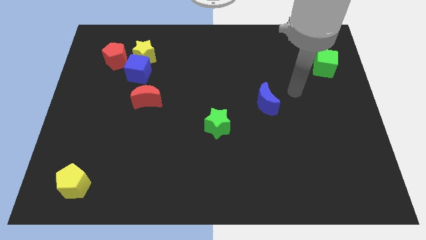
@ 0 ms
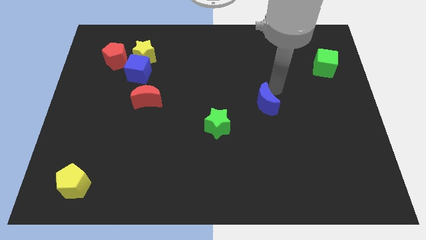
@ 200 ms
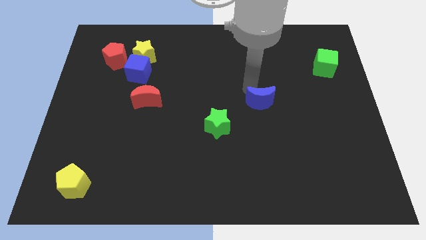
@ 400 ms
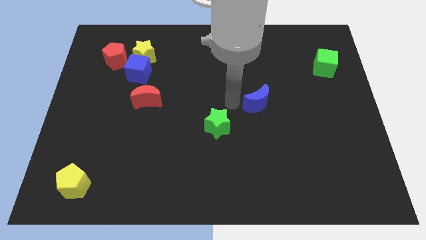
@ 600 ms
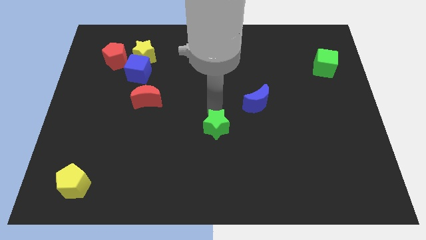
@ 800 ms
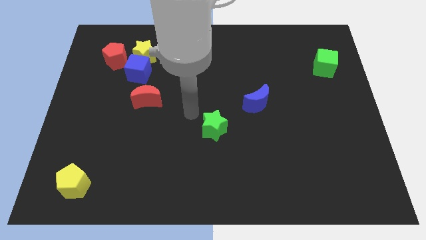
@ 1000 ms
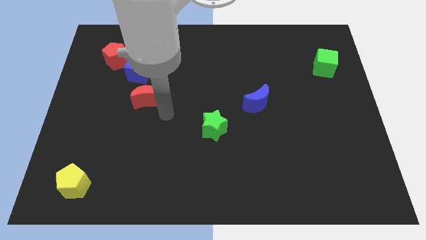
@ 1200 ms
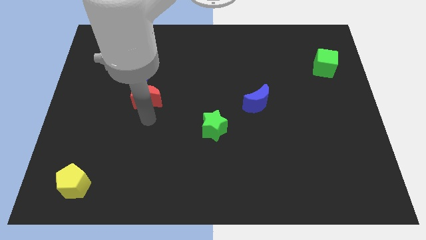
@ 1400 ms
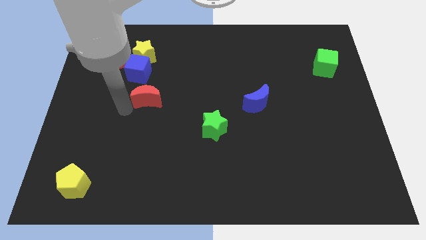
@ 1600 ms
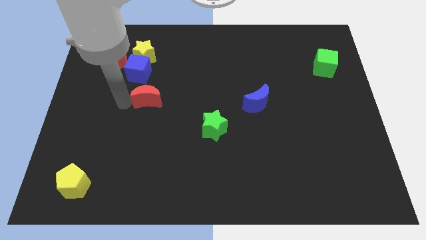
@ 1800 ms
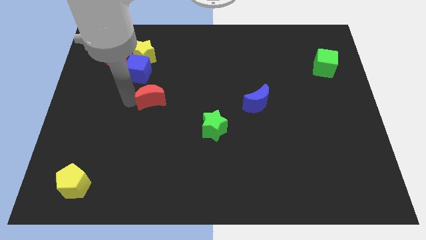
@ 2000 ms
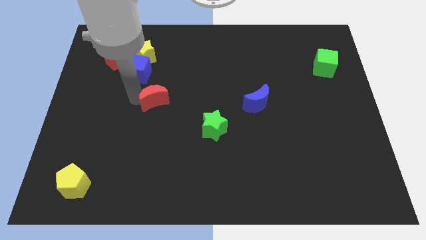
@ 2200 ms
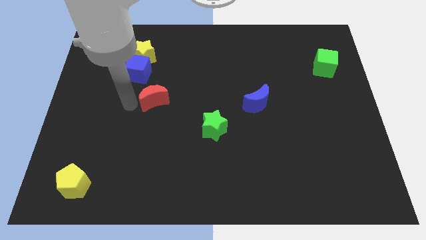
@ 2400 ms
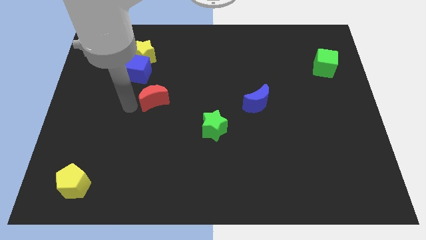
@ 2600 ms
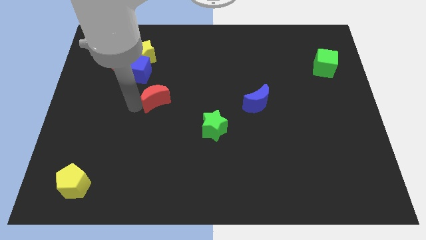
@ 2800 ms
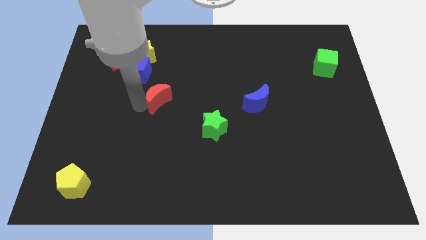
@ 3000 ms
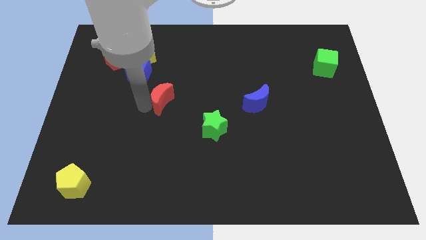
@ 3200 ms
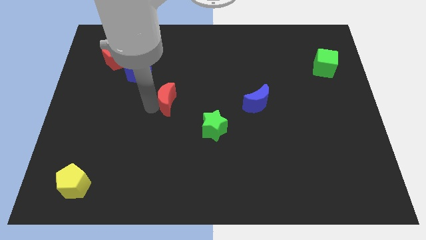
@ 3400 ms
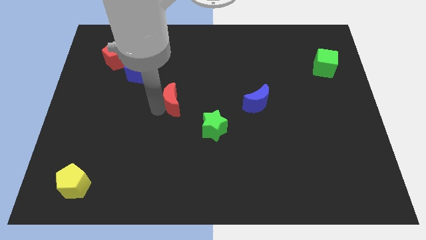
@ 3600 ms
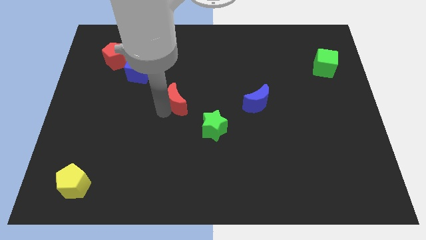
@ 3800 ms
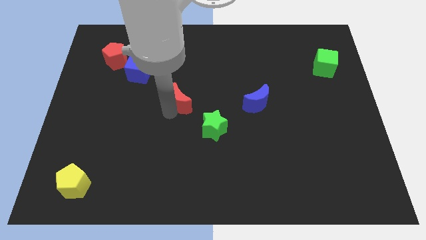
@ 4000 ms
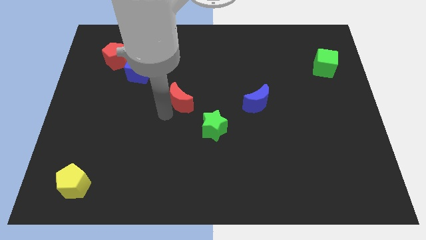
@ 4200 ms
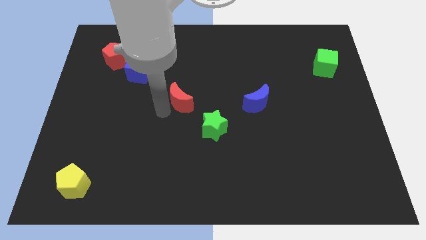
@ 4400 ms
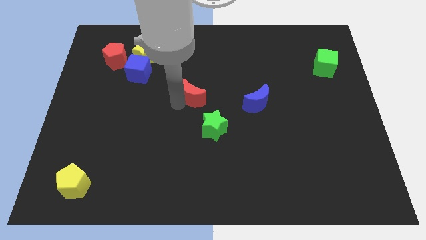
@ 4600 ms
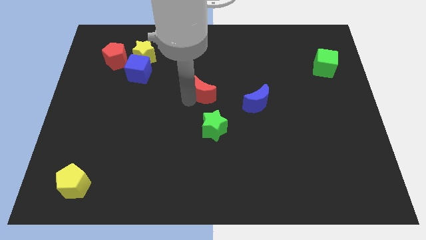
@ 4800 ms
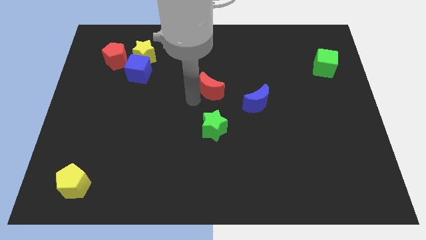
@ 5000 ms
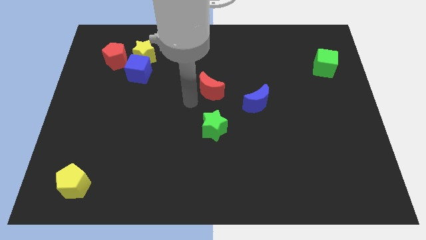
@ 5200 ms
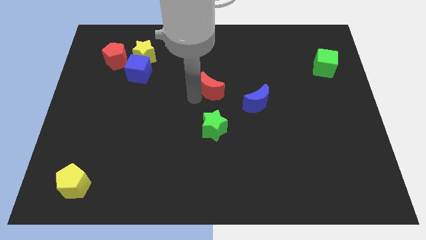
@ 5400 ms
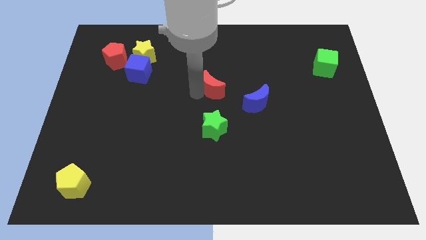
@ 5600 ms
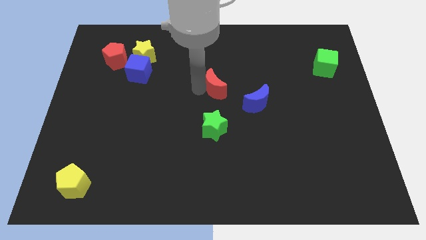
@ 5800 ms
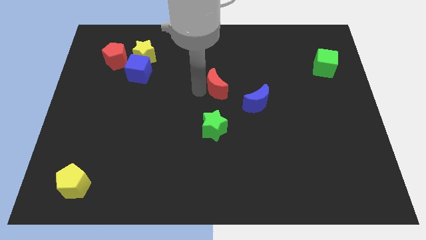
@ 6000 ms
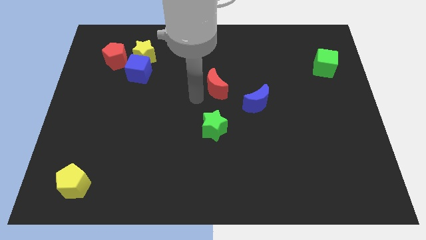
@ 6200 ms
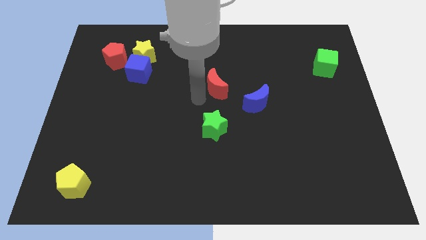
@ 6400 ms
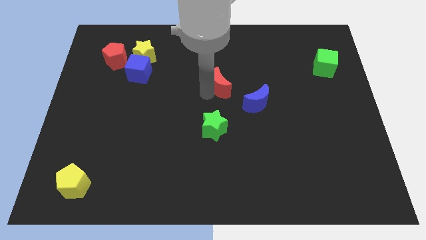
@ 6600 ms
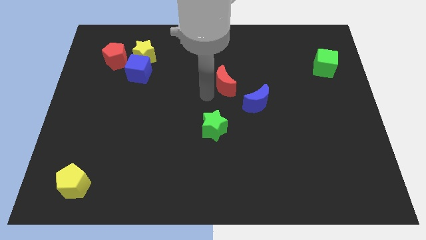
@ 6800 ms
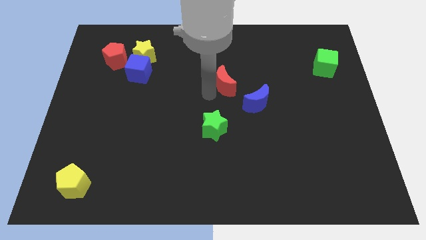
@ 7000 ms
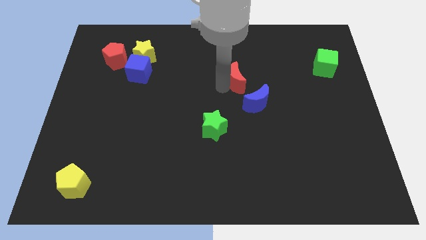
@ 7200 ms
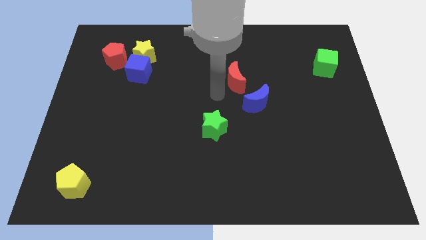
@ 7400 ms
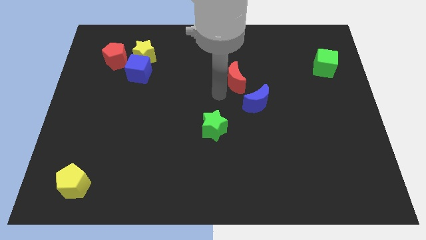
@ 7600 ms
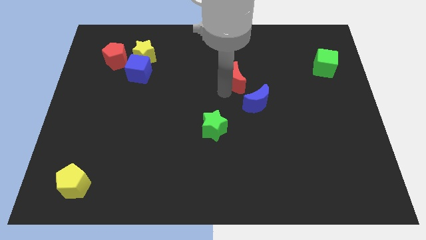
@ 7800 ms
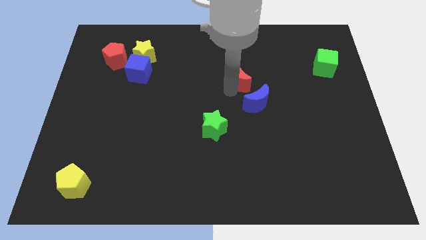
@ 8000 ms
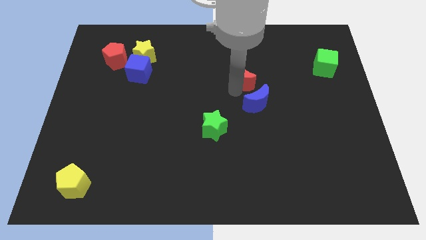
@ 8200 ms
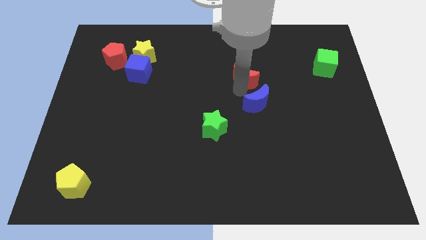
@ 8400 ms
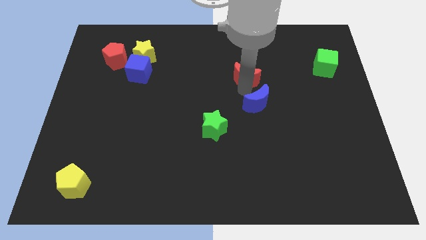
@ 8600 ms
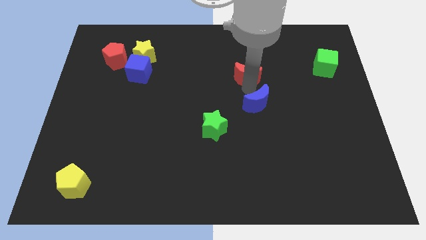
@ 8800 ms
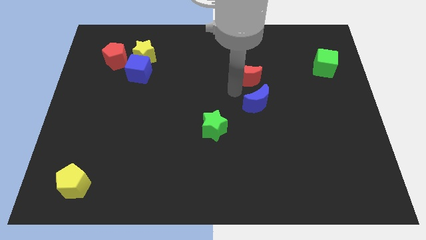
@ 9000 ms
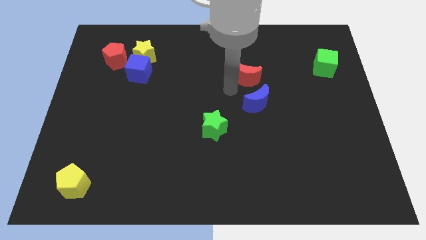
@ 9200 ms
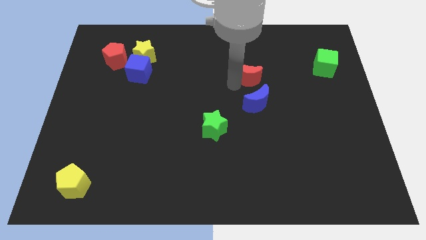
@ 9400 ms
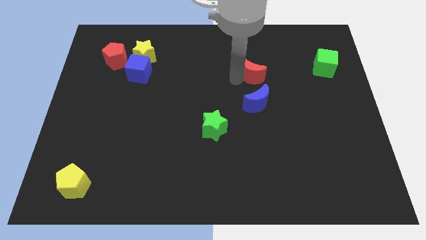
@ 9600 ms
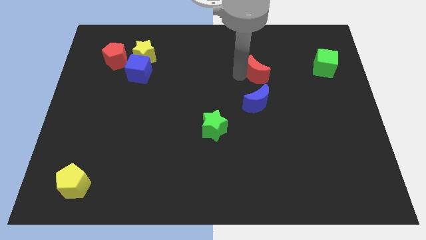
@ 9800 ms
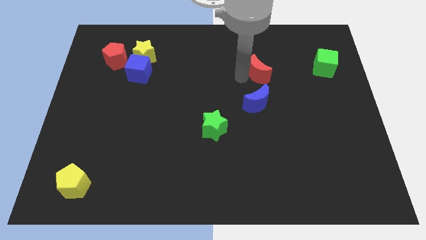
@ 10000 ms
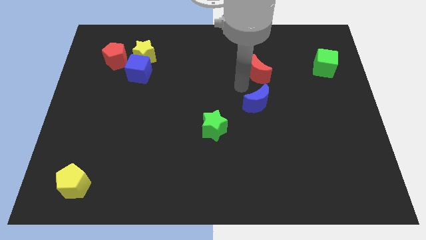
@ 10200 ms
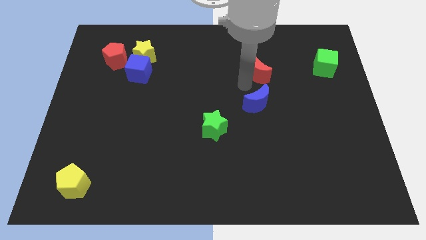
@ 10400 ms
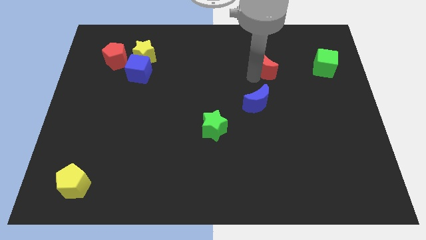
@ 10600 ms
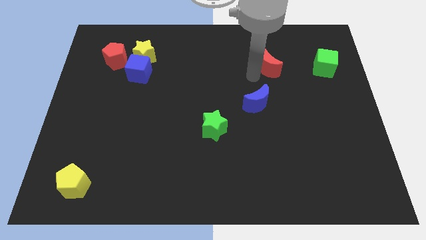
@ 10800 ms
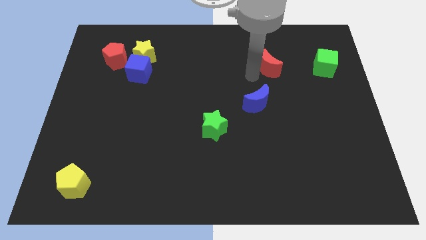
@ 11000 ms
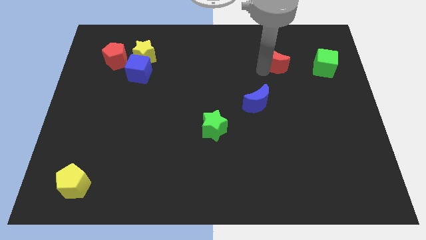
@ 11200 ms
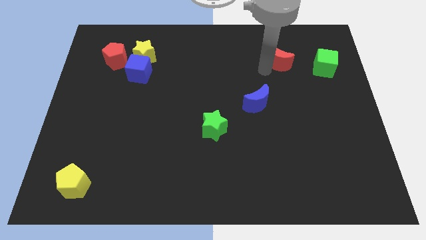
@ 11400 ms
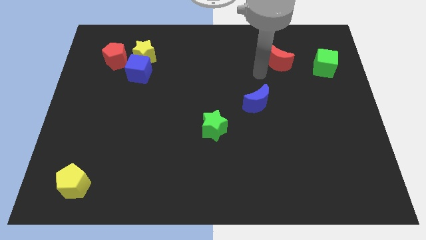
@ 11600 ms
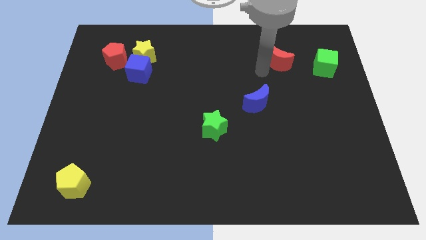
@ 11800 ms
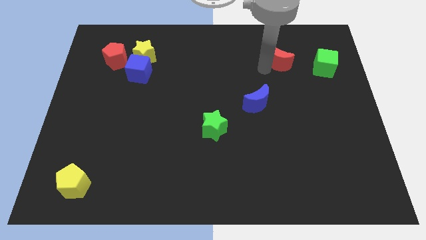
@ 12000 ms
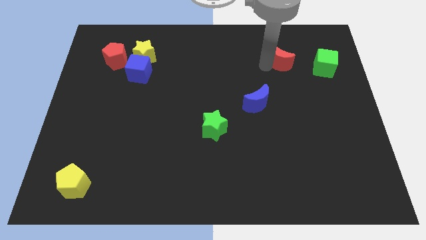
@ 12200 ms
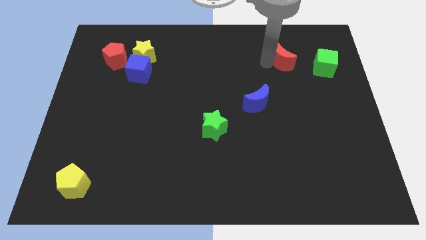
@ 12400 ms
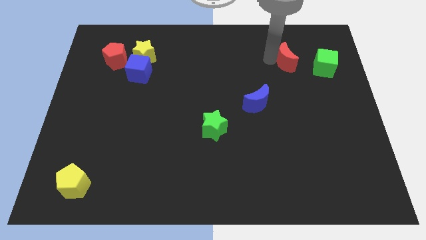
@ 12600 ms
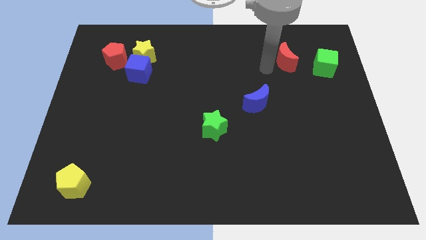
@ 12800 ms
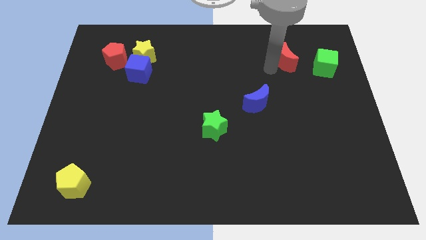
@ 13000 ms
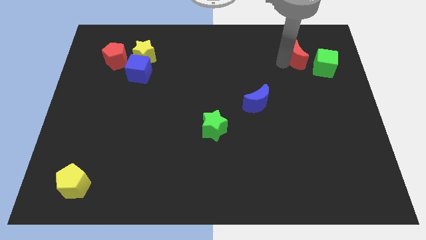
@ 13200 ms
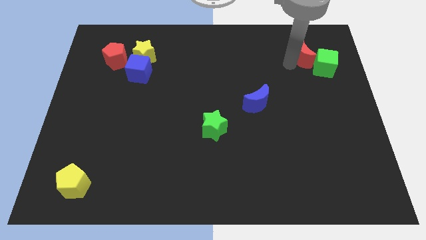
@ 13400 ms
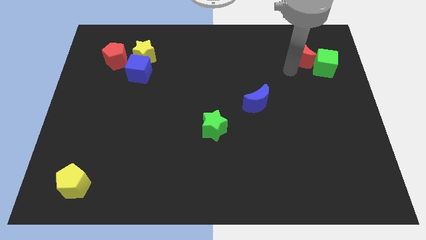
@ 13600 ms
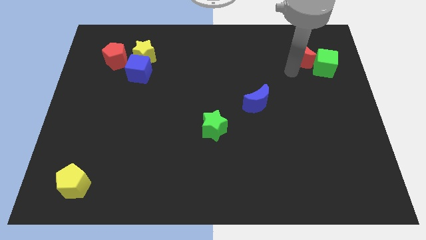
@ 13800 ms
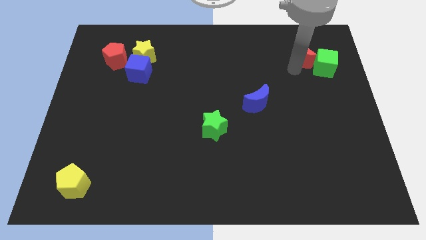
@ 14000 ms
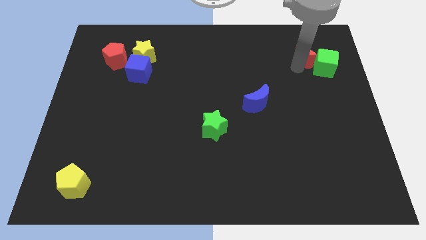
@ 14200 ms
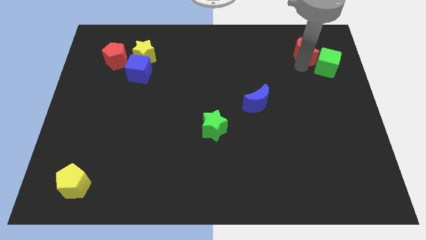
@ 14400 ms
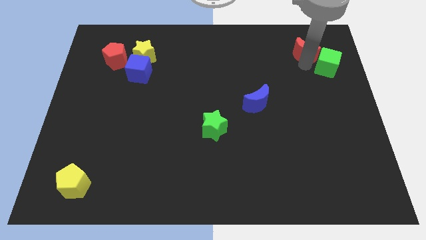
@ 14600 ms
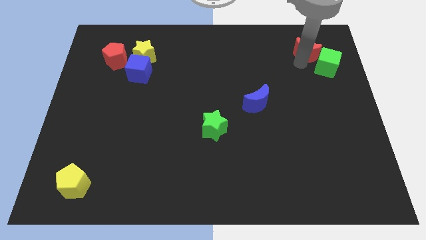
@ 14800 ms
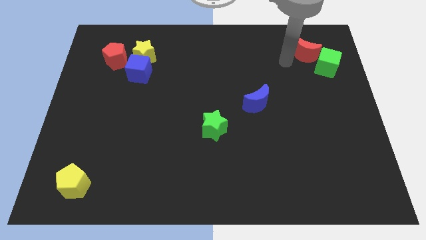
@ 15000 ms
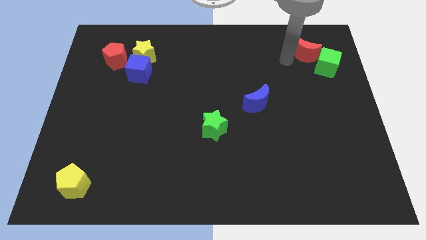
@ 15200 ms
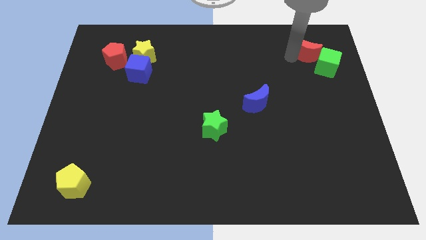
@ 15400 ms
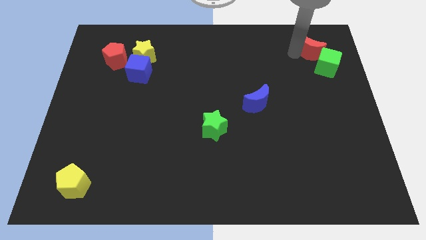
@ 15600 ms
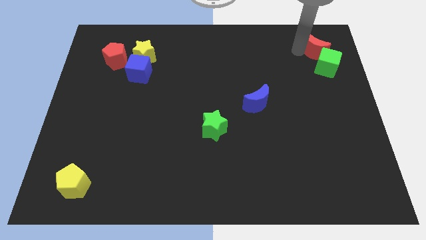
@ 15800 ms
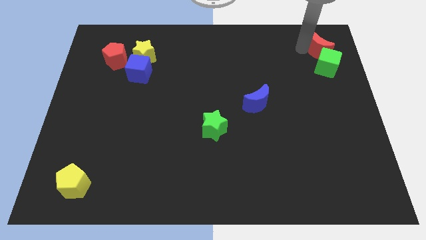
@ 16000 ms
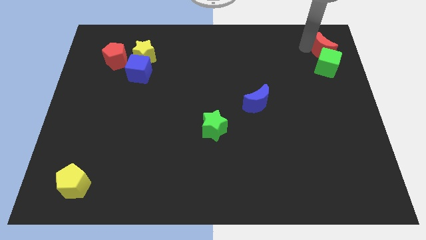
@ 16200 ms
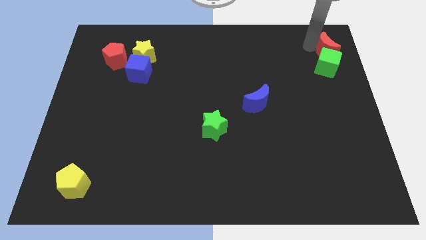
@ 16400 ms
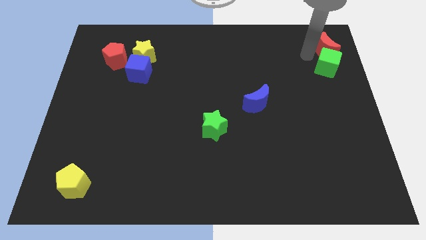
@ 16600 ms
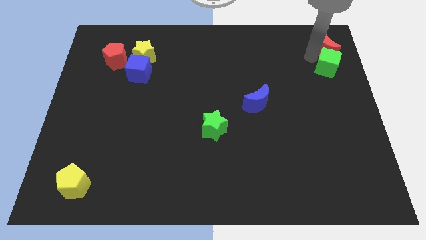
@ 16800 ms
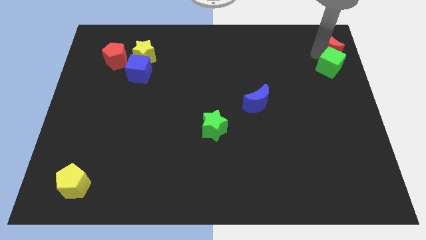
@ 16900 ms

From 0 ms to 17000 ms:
put the red moon to the top right of the board
